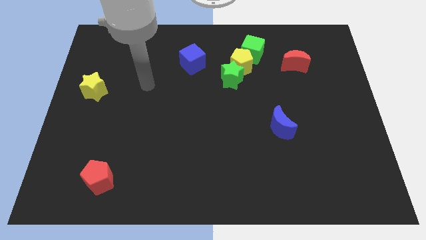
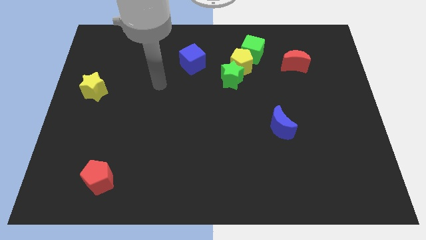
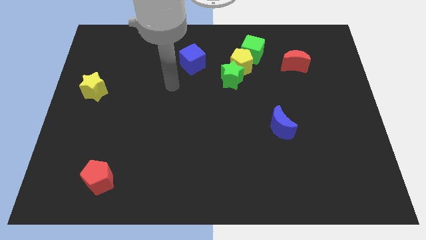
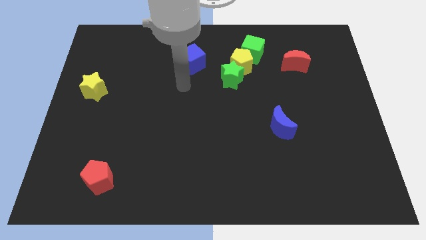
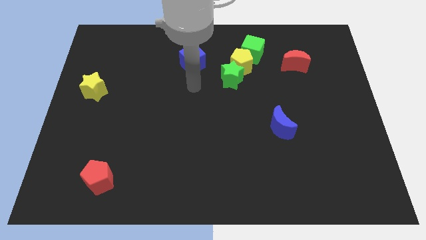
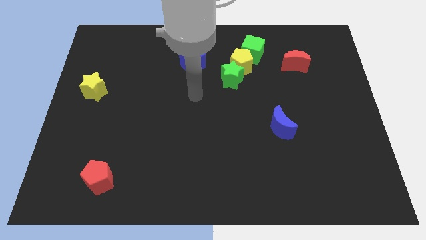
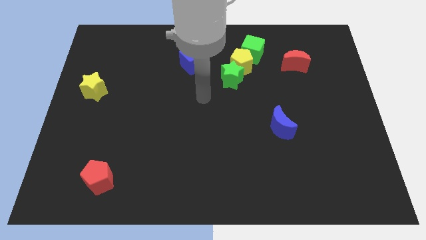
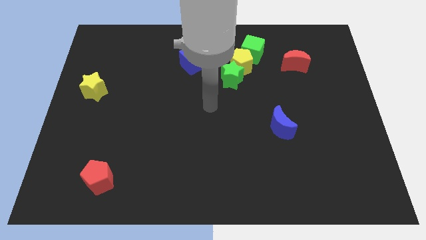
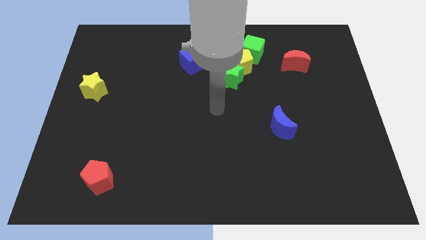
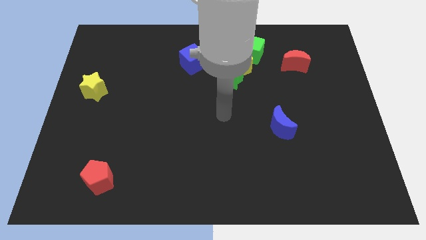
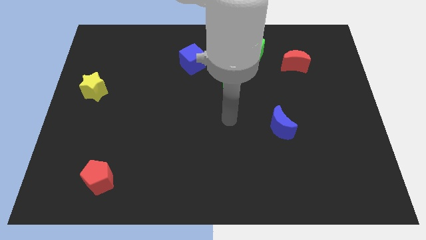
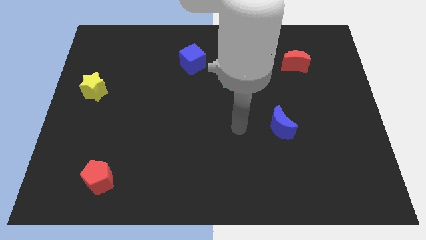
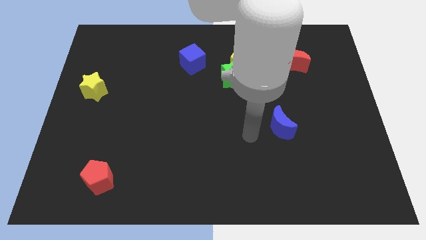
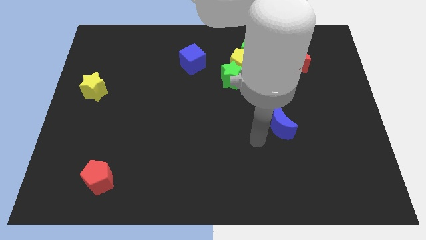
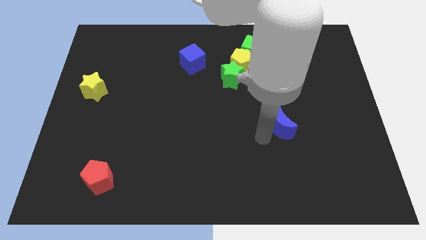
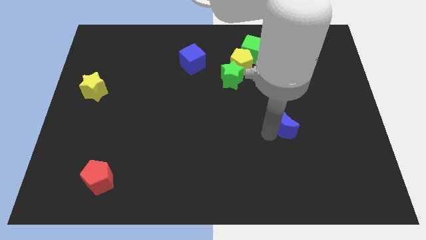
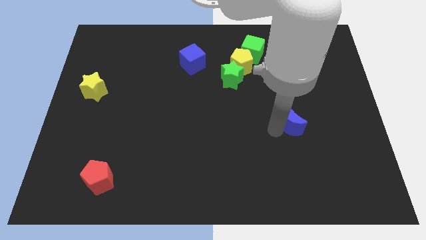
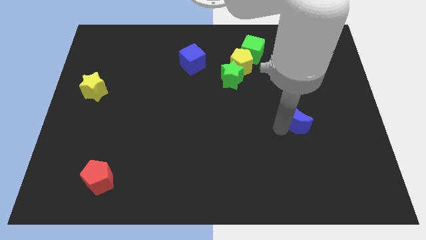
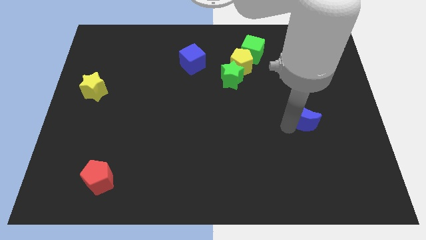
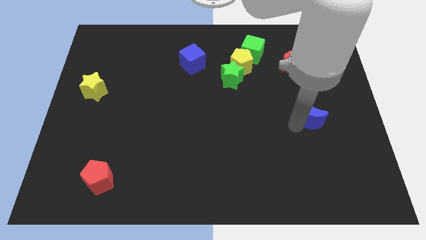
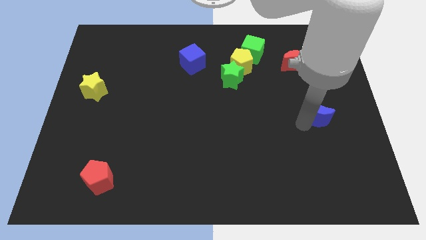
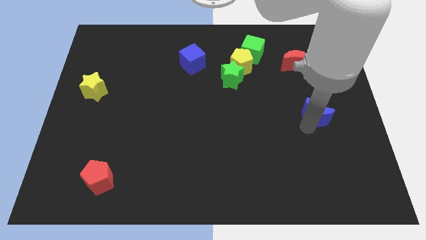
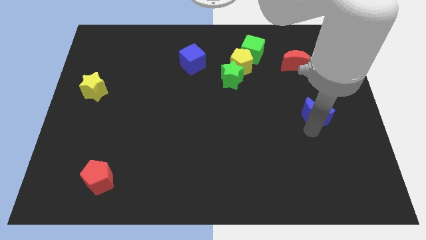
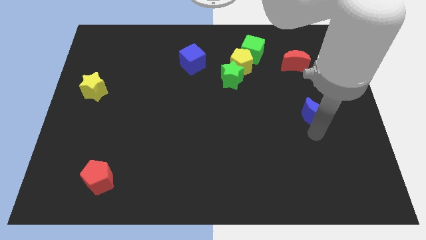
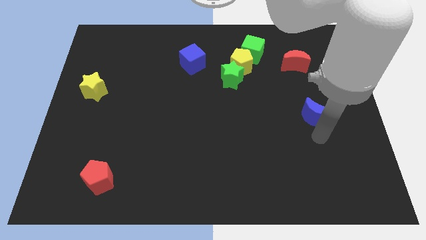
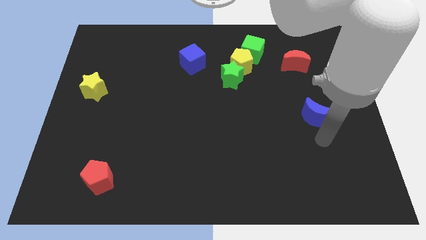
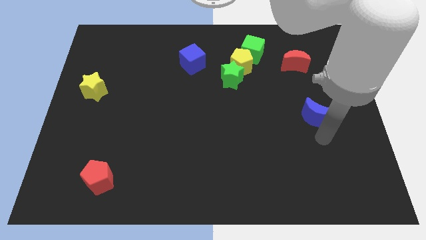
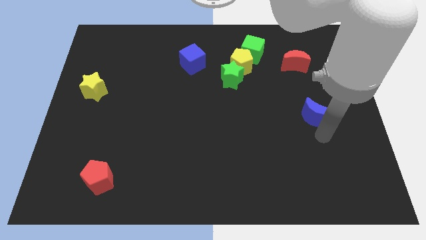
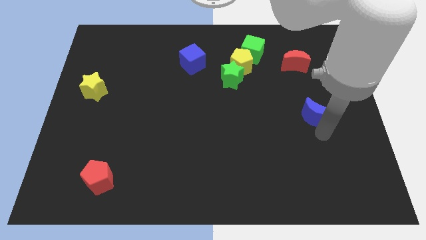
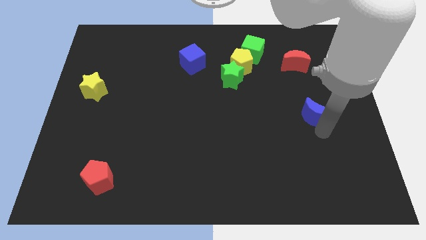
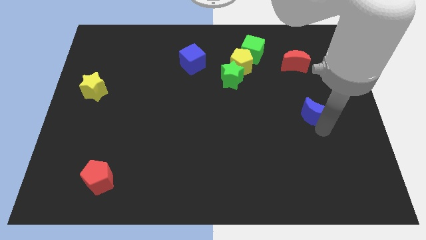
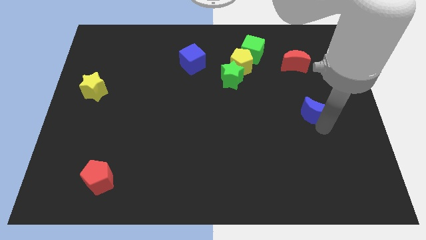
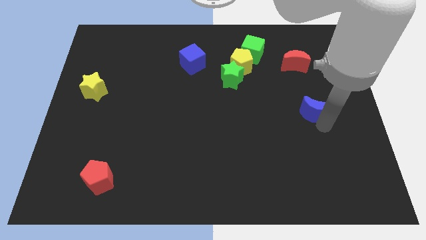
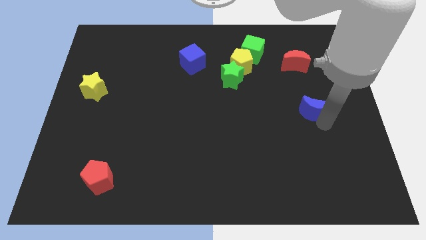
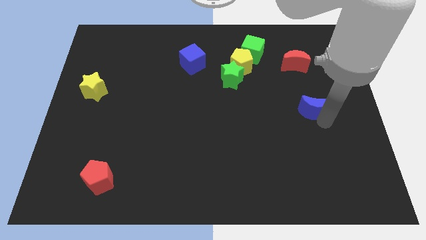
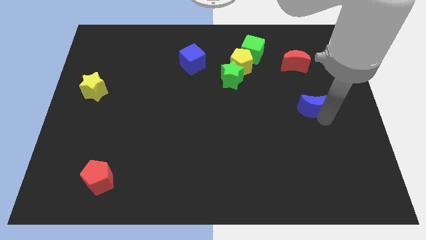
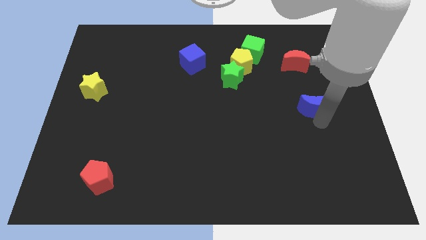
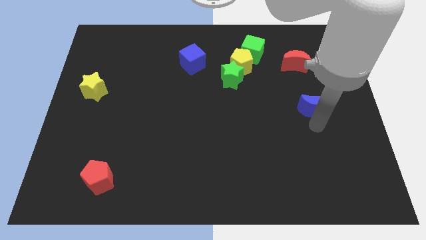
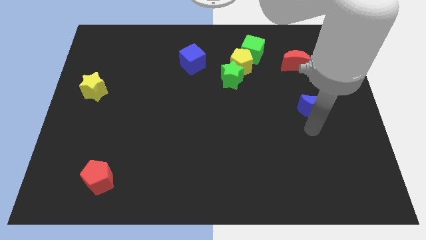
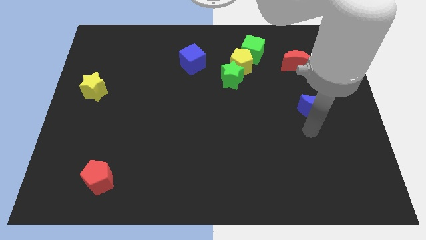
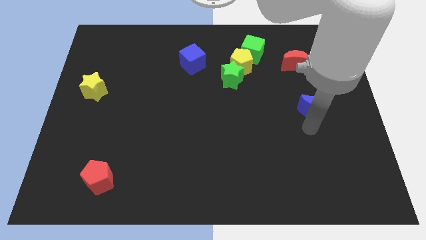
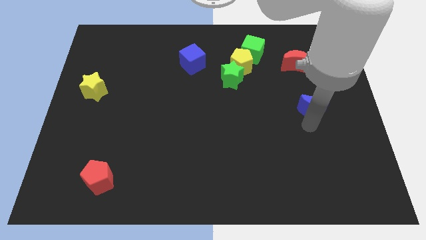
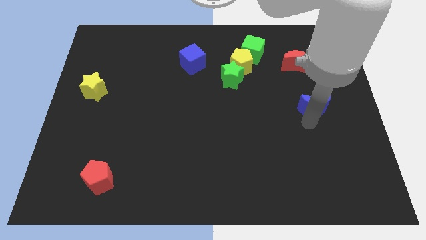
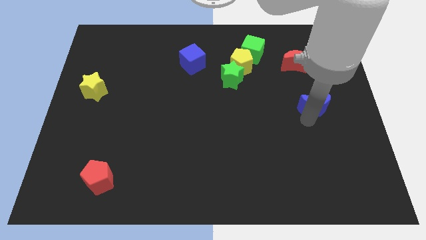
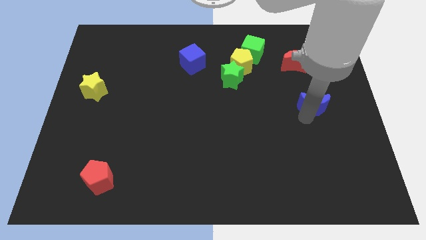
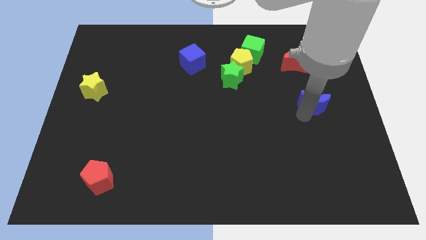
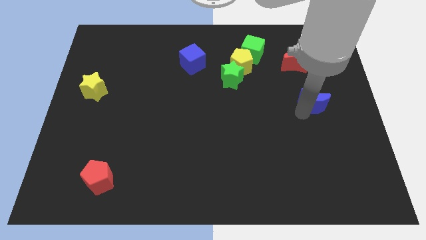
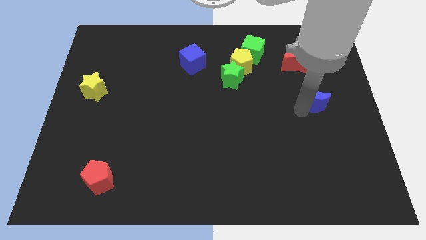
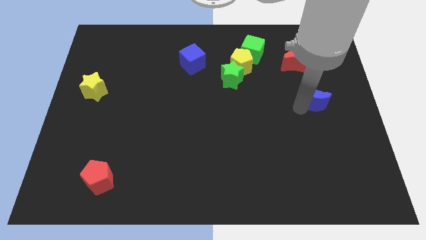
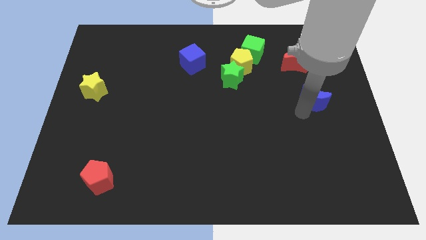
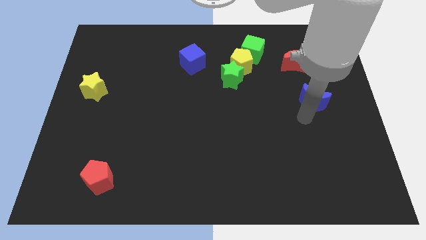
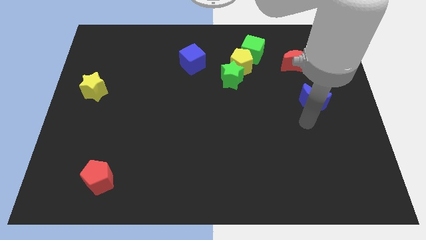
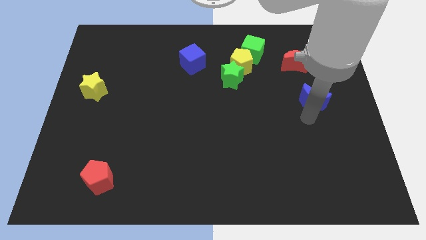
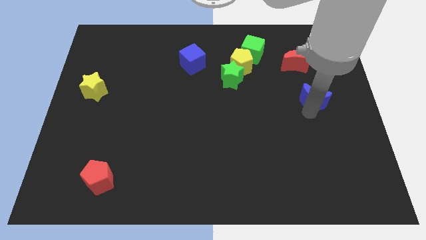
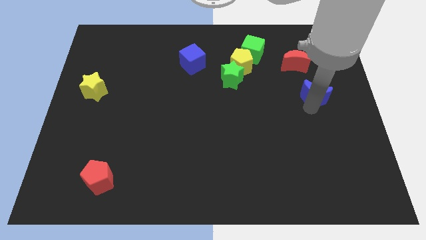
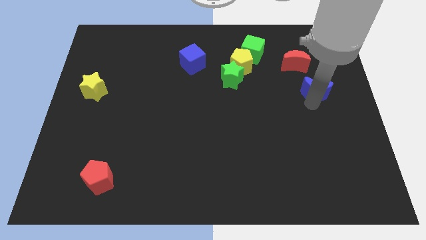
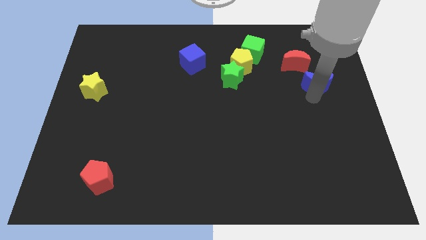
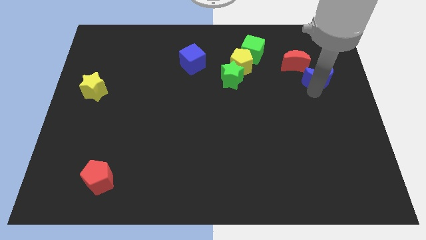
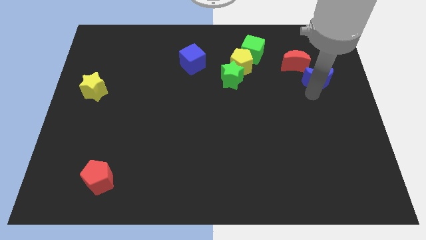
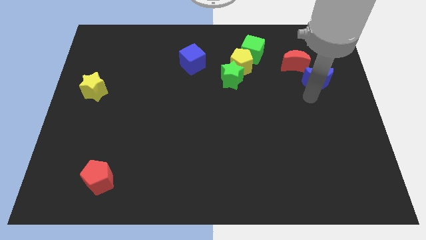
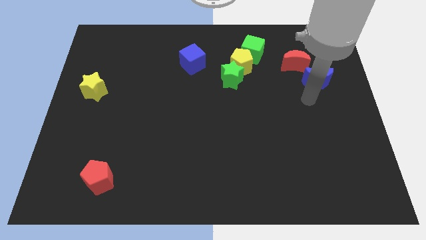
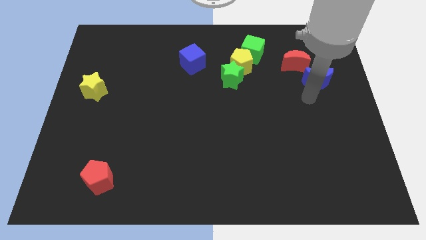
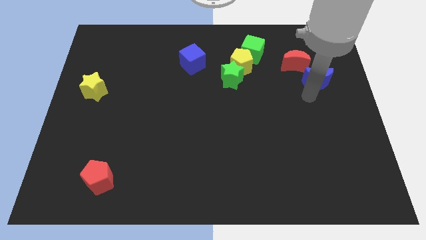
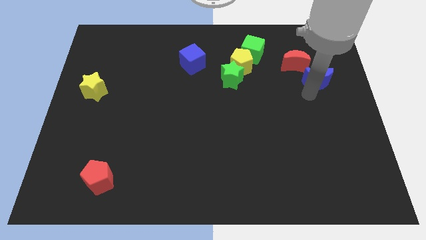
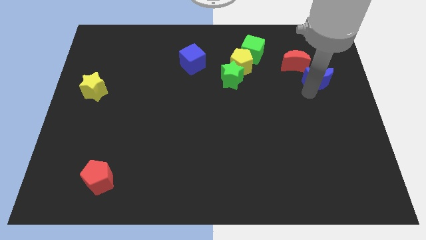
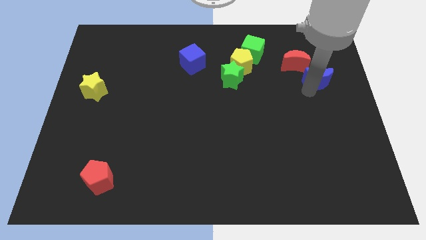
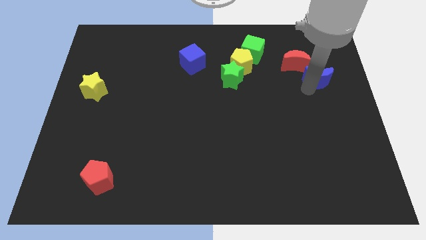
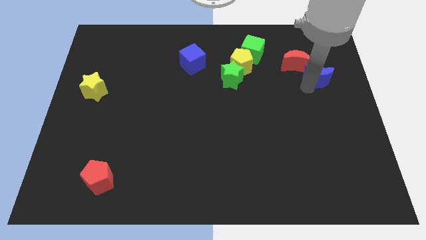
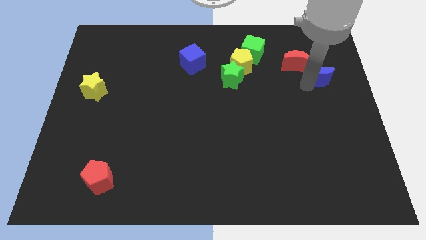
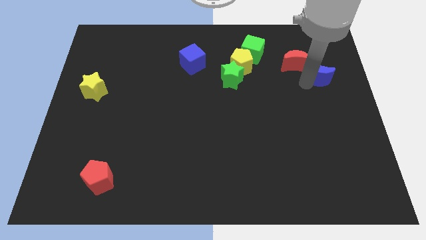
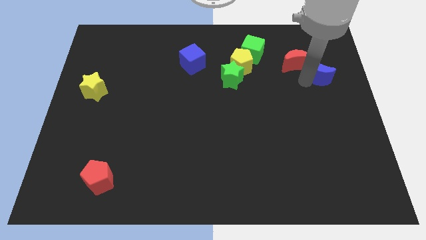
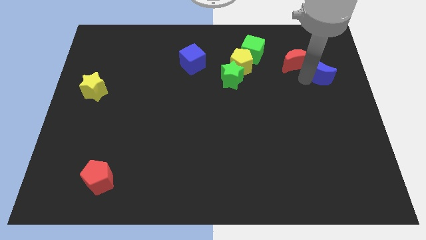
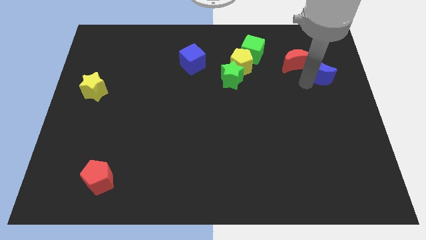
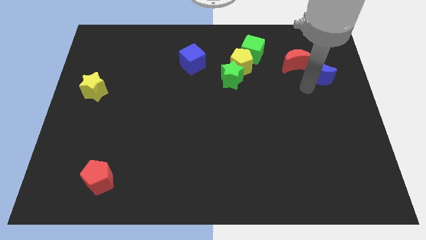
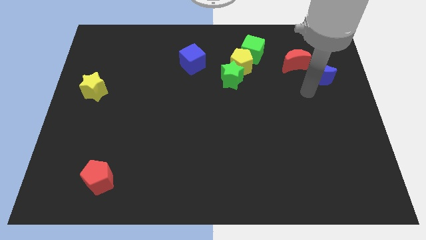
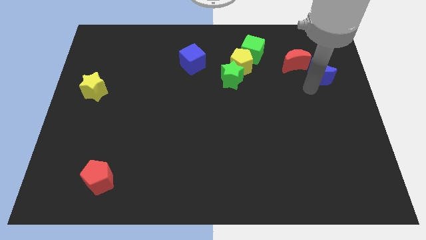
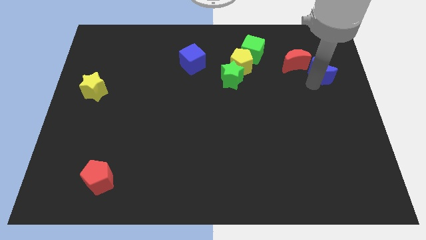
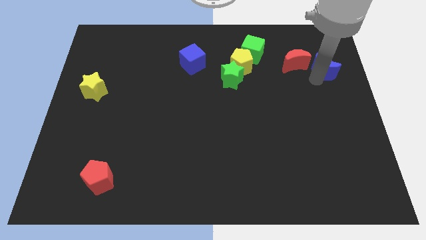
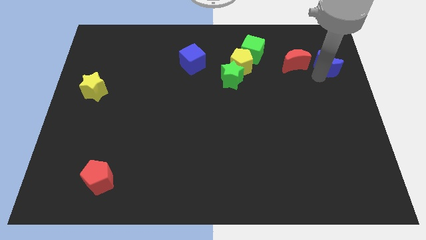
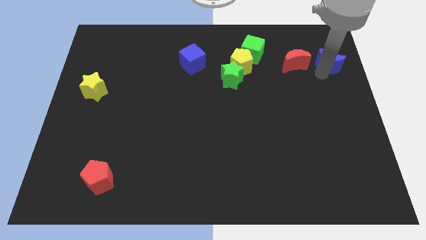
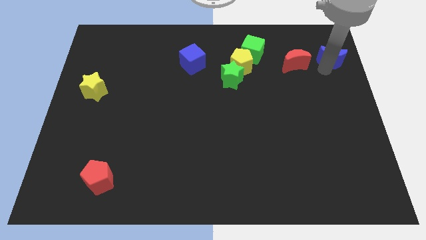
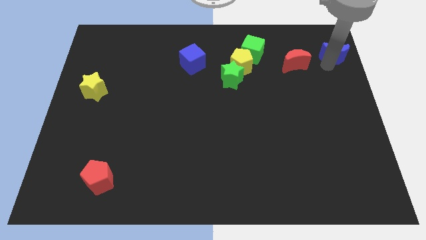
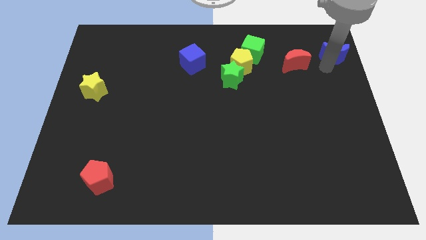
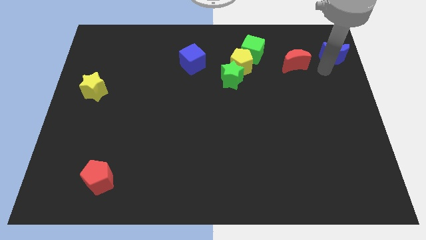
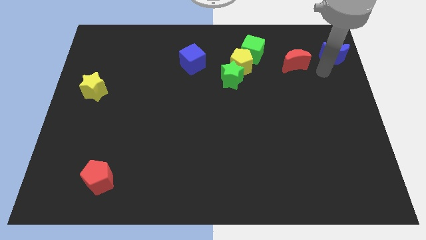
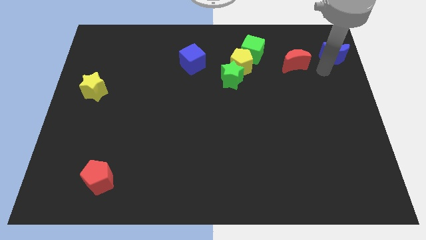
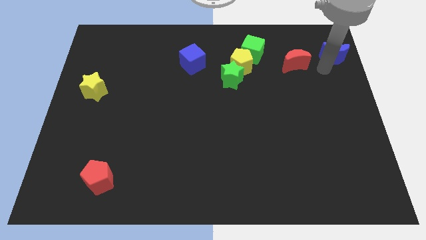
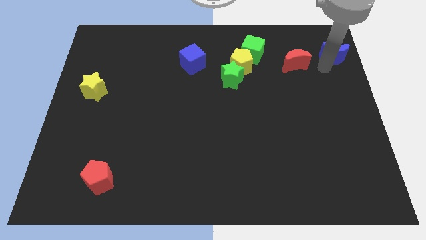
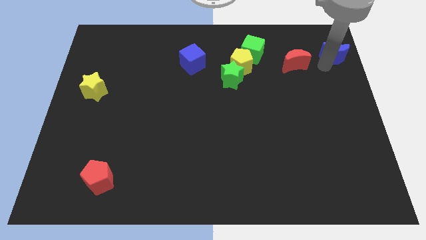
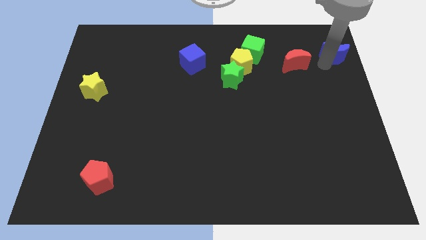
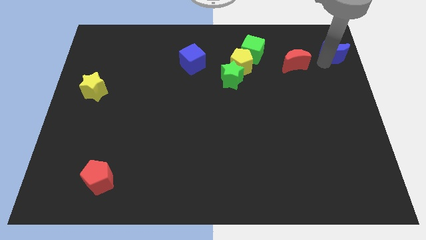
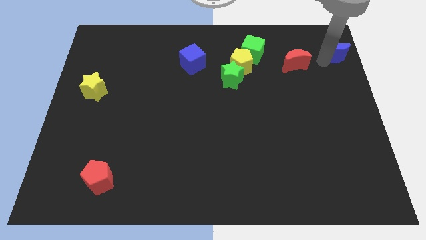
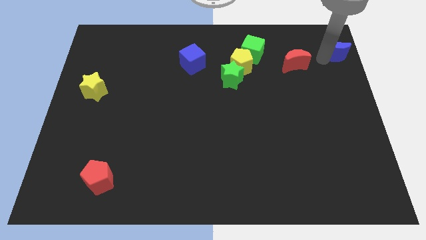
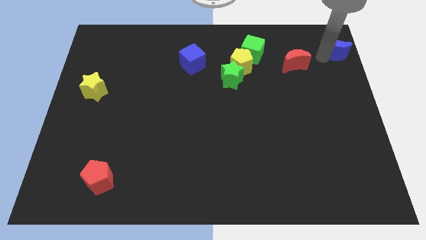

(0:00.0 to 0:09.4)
move the blue moon to the top right
